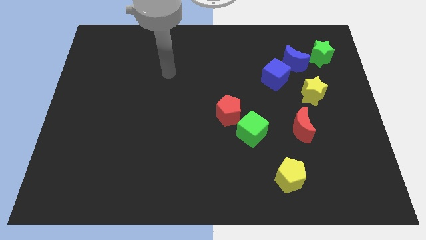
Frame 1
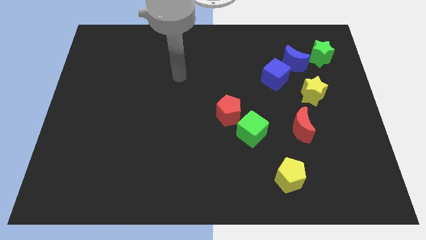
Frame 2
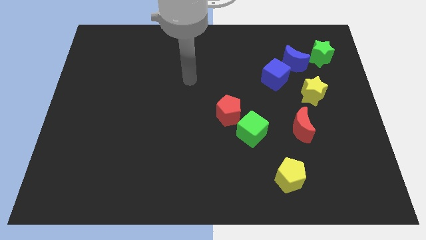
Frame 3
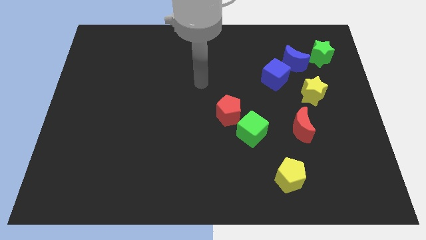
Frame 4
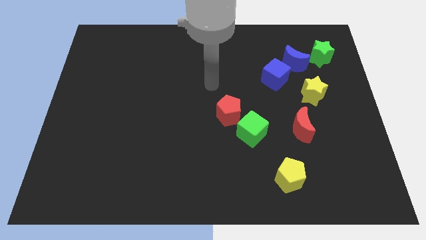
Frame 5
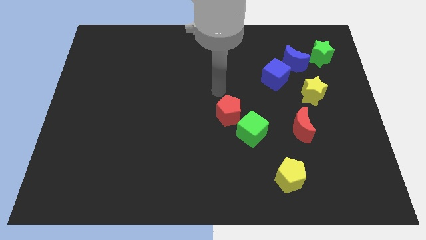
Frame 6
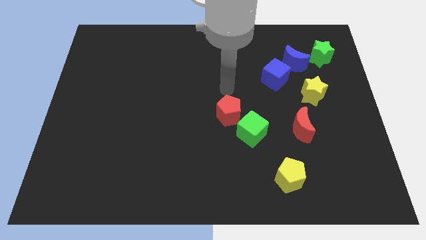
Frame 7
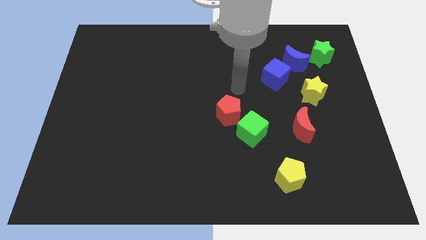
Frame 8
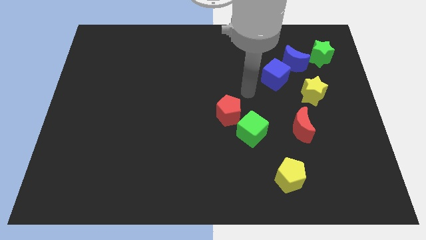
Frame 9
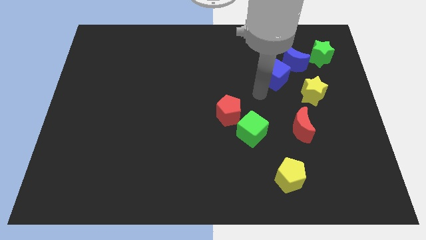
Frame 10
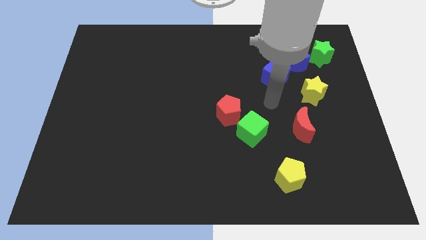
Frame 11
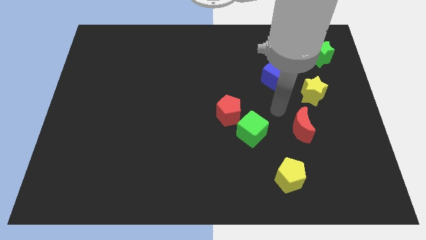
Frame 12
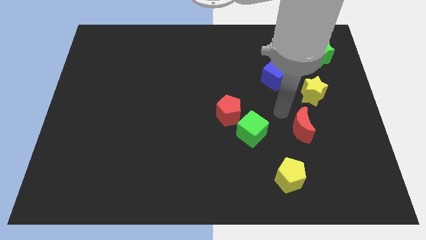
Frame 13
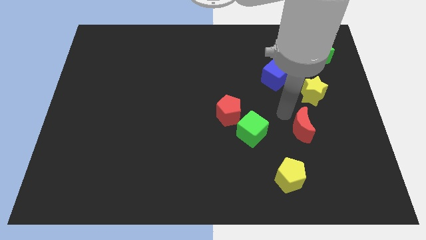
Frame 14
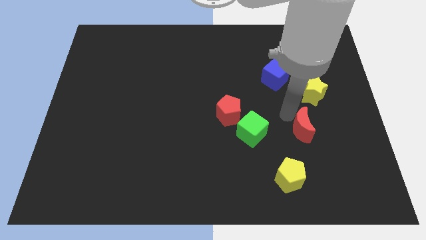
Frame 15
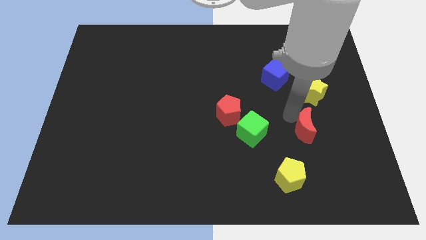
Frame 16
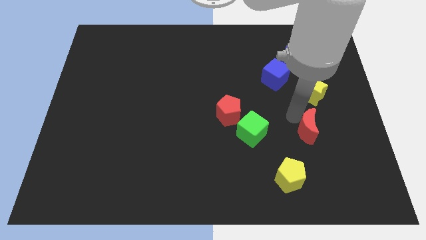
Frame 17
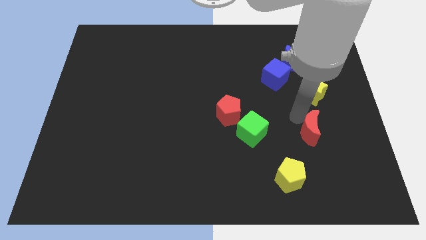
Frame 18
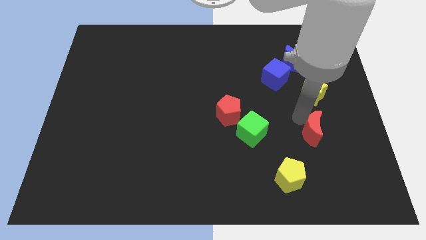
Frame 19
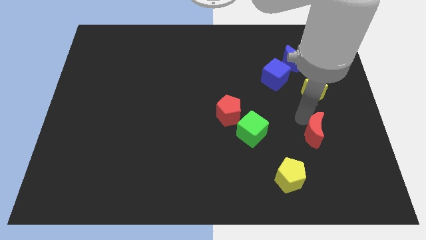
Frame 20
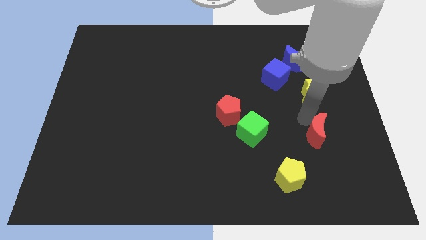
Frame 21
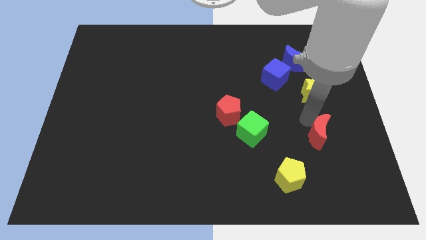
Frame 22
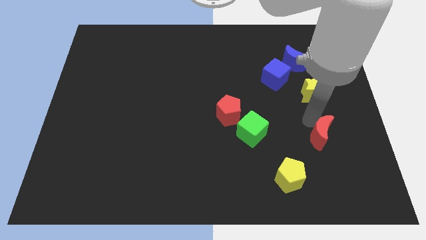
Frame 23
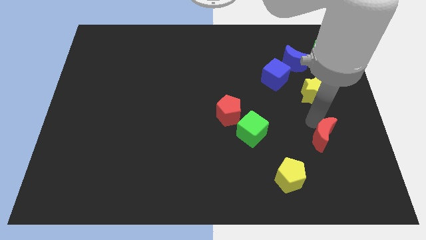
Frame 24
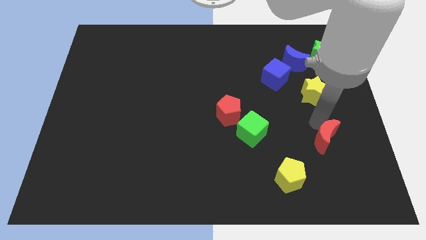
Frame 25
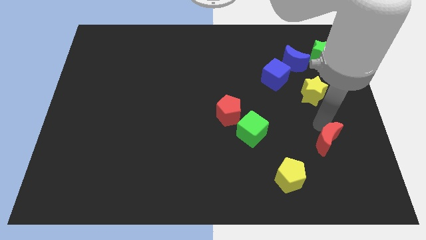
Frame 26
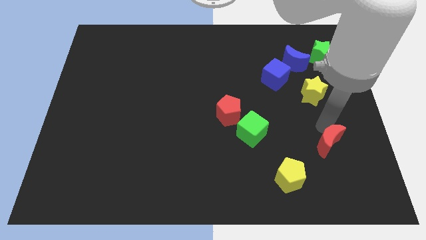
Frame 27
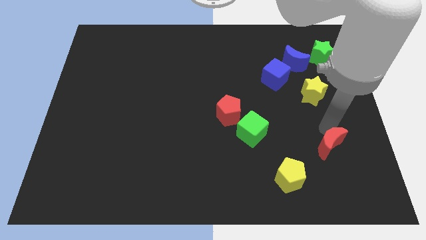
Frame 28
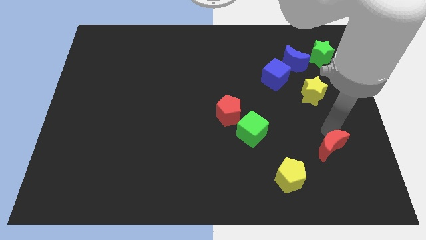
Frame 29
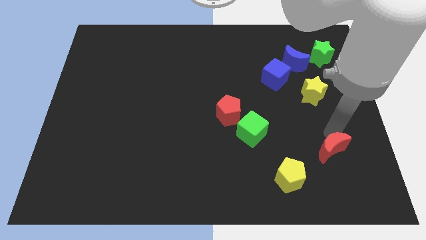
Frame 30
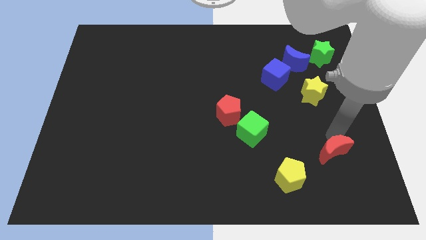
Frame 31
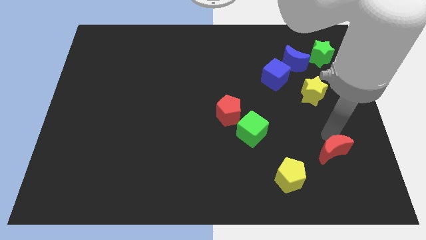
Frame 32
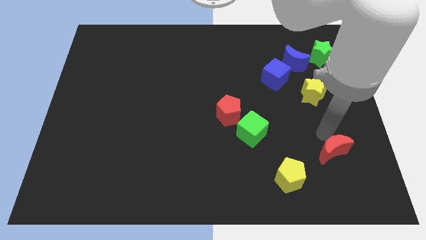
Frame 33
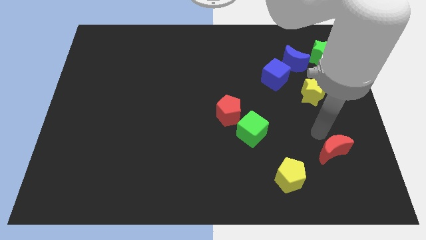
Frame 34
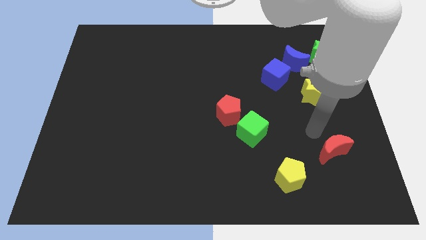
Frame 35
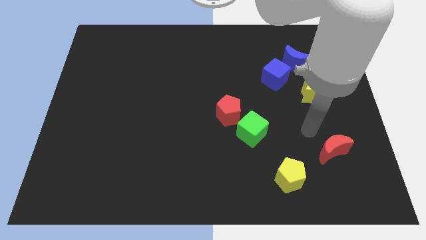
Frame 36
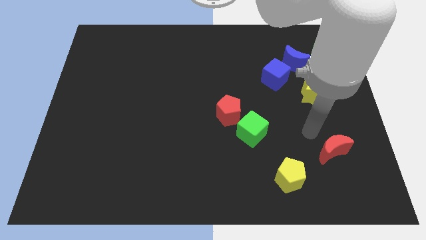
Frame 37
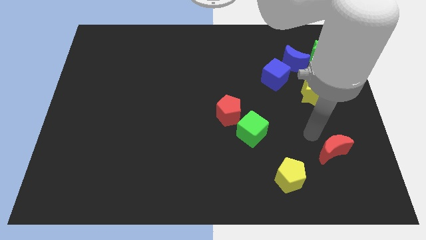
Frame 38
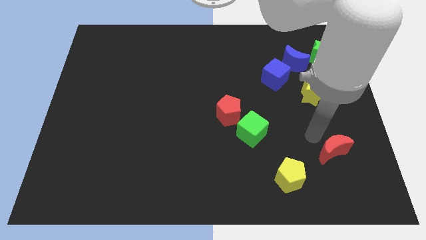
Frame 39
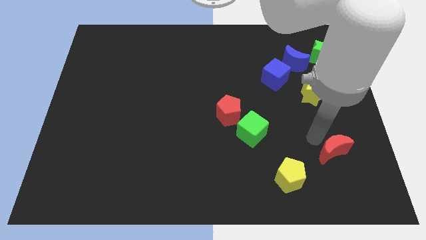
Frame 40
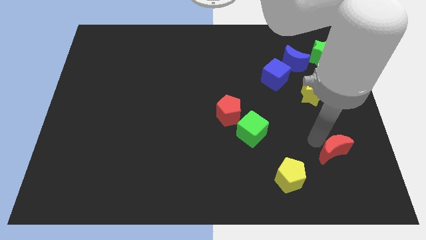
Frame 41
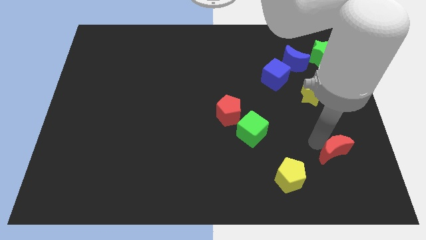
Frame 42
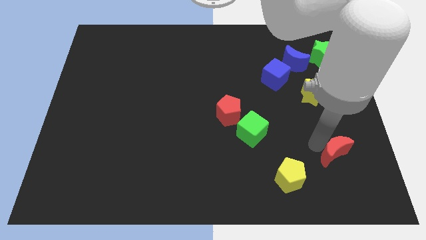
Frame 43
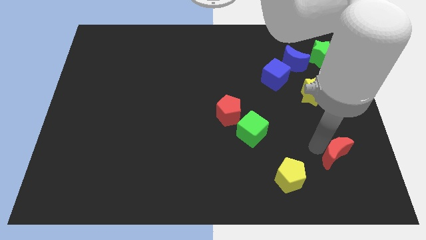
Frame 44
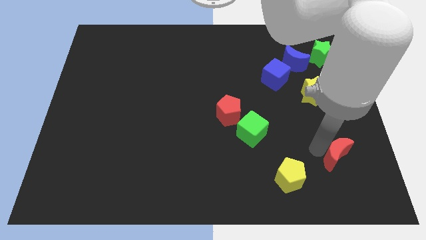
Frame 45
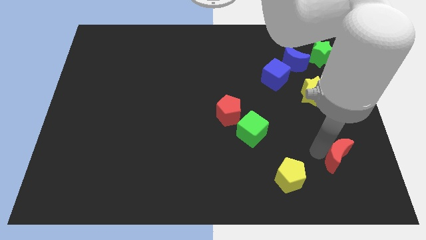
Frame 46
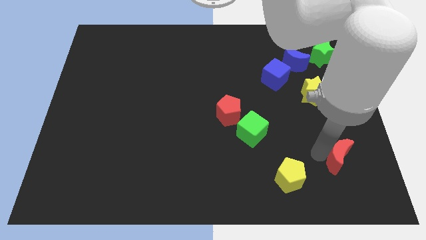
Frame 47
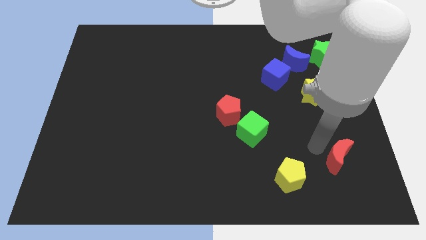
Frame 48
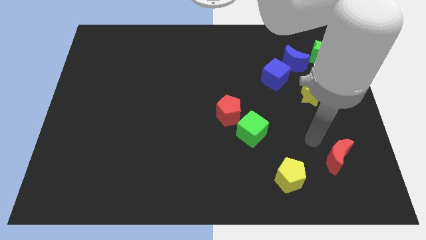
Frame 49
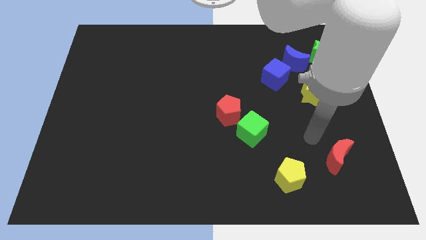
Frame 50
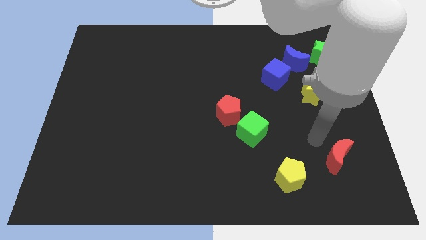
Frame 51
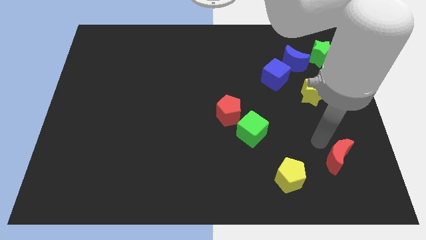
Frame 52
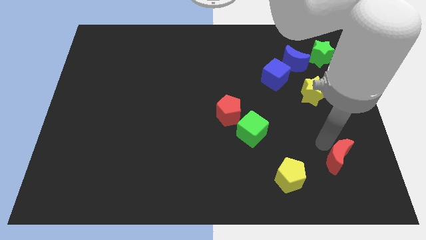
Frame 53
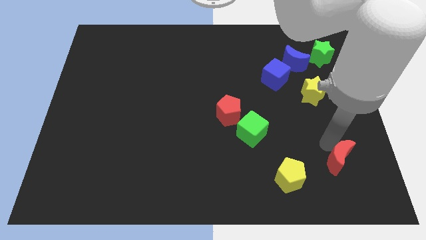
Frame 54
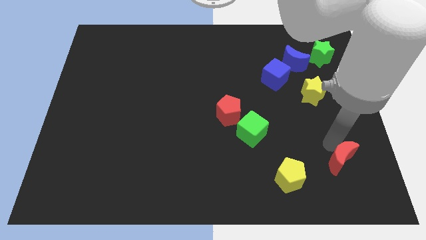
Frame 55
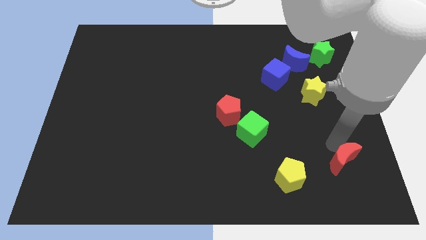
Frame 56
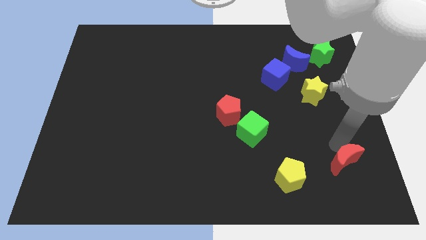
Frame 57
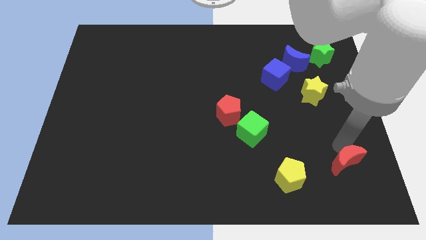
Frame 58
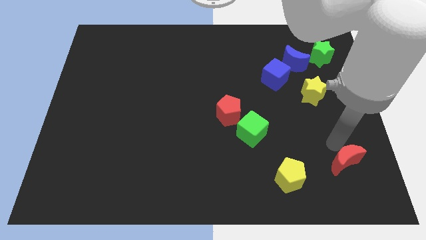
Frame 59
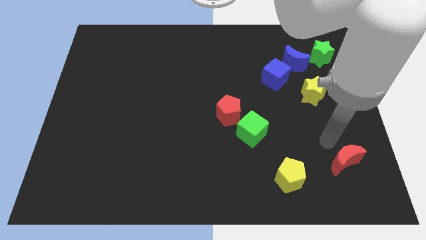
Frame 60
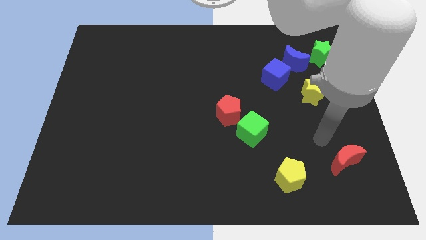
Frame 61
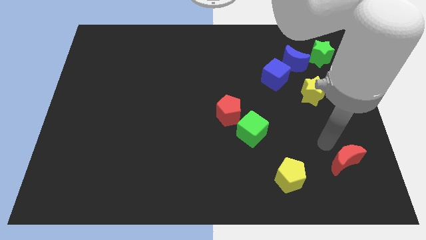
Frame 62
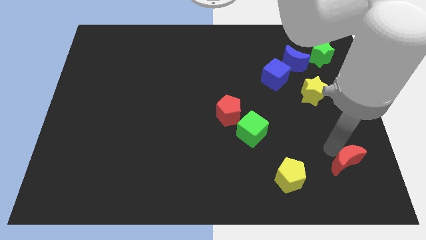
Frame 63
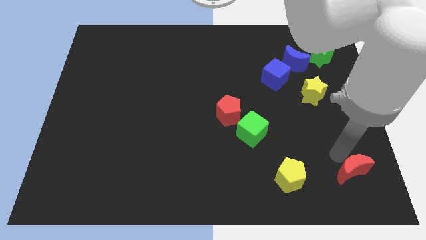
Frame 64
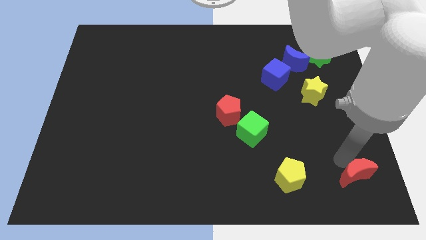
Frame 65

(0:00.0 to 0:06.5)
put the red moon to the bottom right corner

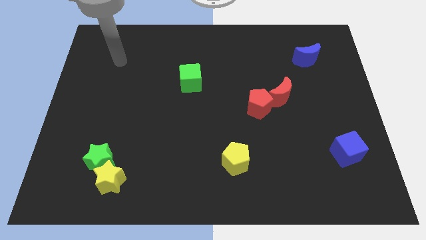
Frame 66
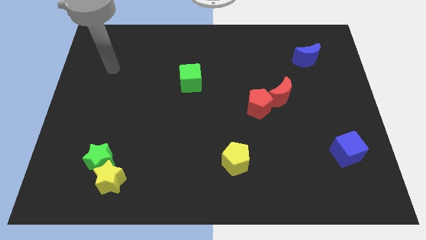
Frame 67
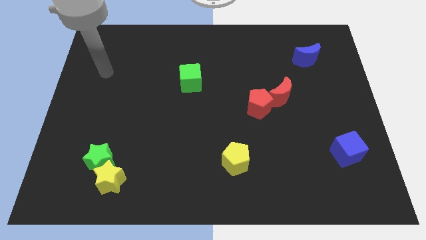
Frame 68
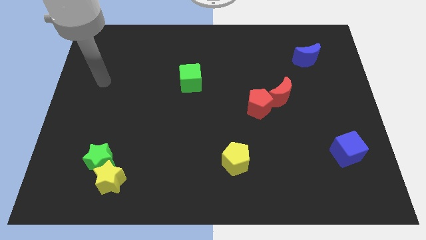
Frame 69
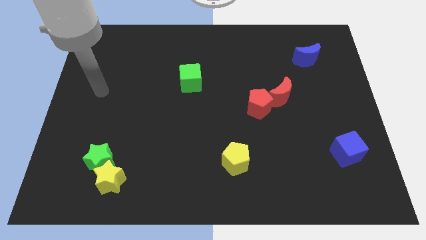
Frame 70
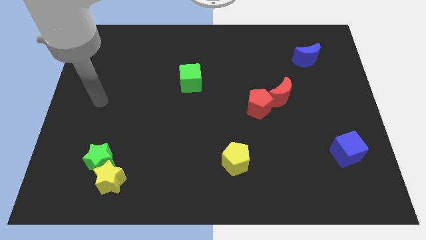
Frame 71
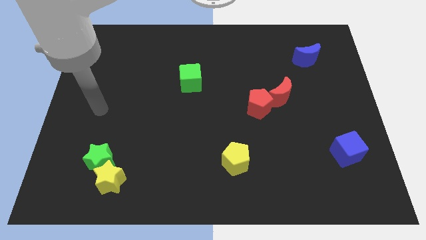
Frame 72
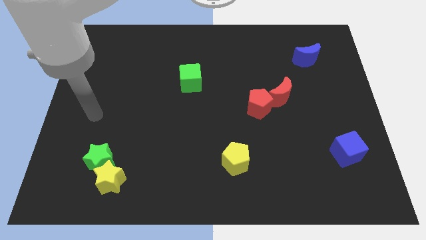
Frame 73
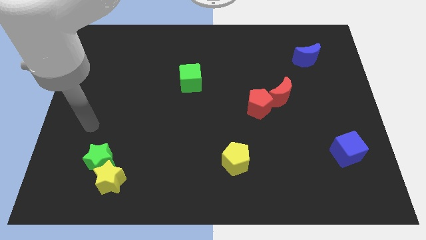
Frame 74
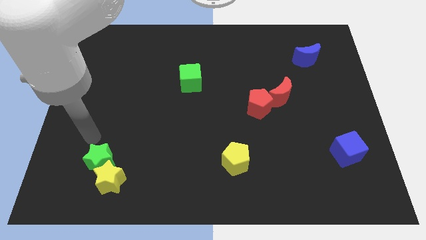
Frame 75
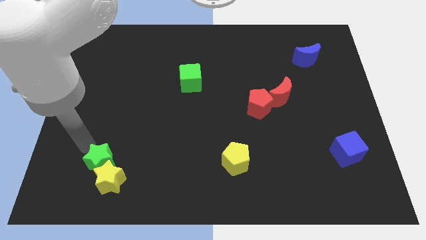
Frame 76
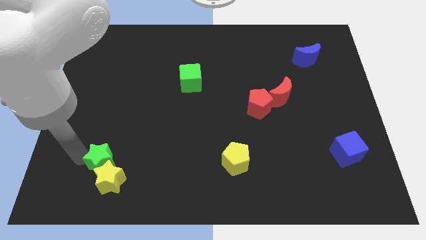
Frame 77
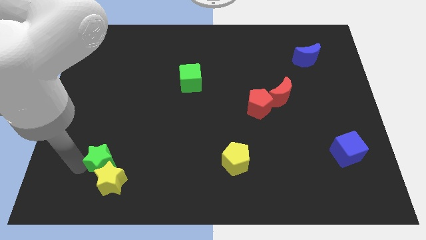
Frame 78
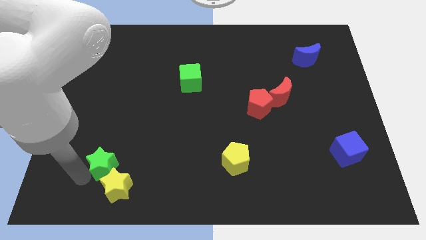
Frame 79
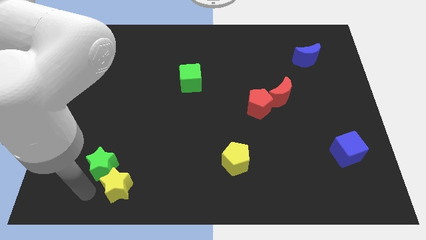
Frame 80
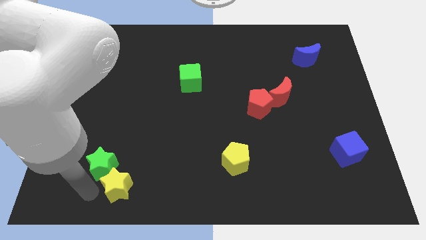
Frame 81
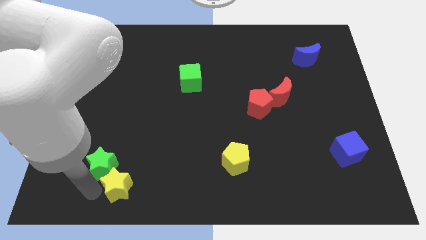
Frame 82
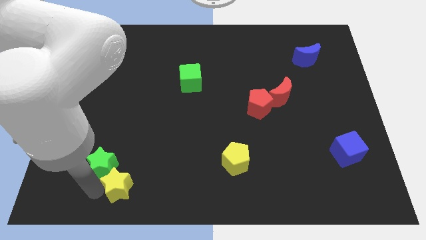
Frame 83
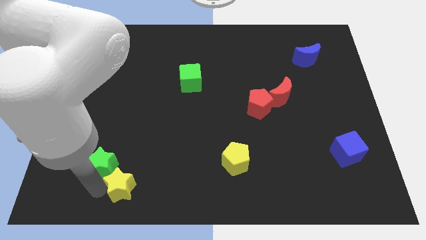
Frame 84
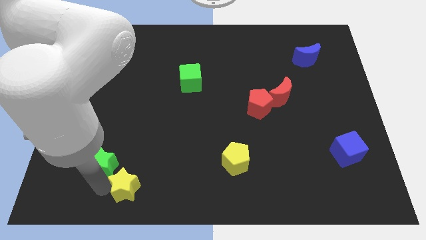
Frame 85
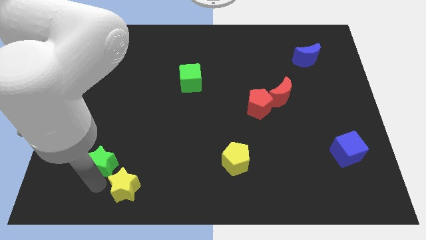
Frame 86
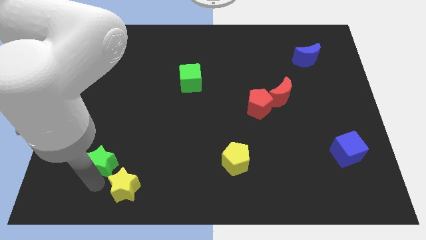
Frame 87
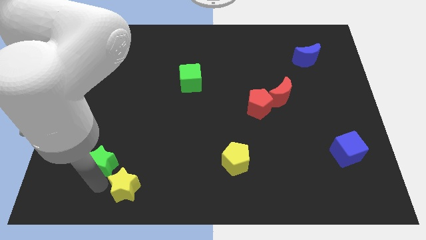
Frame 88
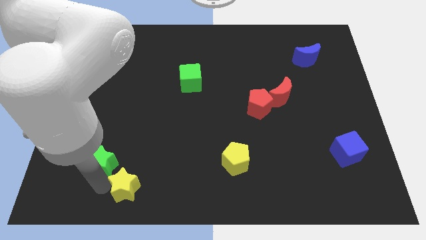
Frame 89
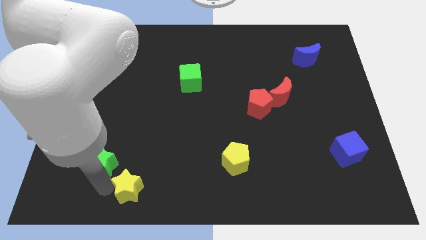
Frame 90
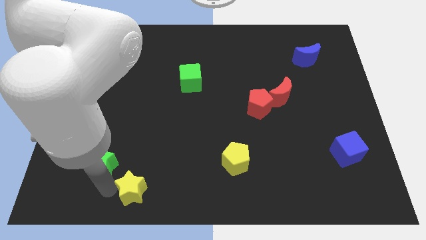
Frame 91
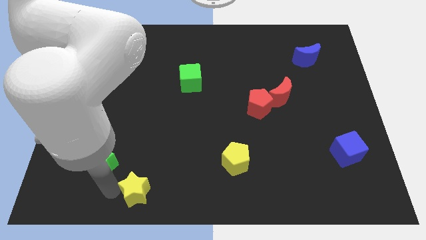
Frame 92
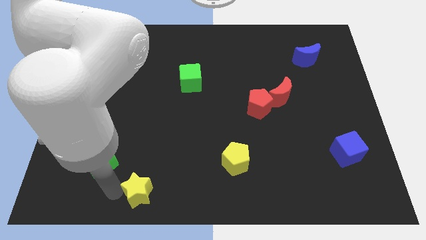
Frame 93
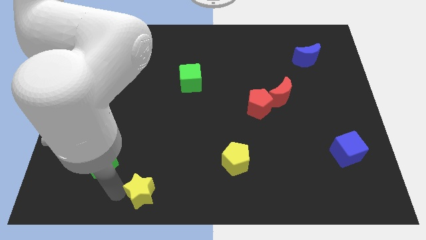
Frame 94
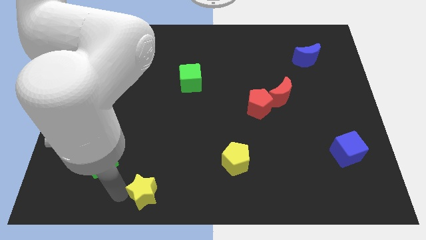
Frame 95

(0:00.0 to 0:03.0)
slide the yellow star to the bottom side
